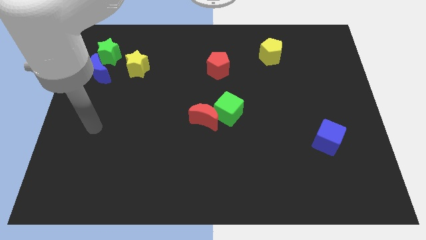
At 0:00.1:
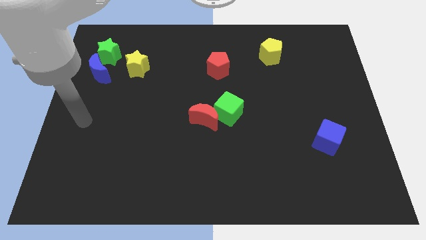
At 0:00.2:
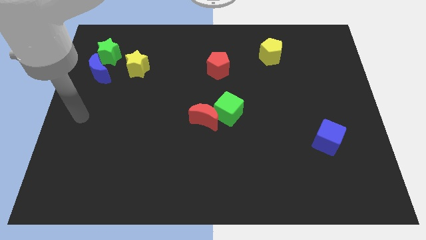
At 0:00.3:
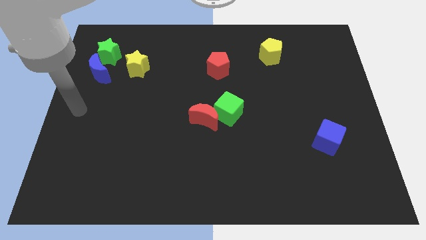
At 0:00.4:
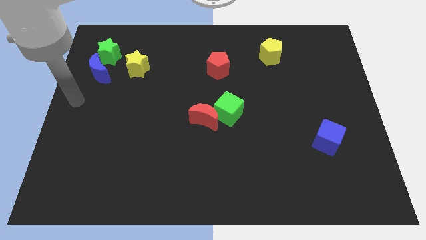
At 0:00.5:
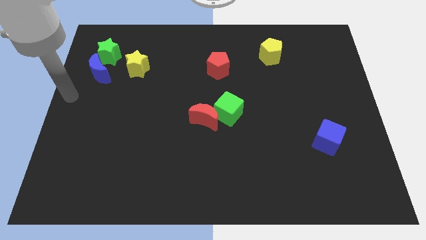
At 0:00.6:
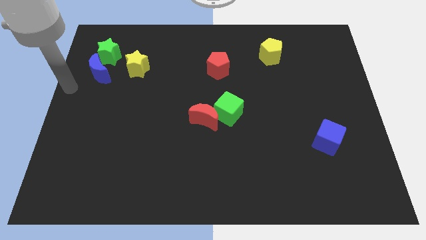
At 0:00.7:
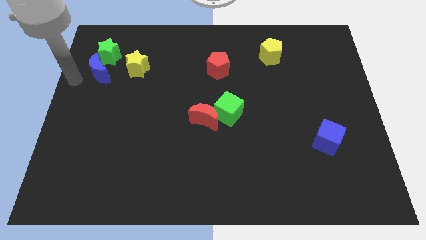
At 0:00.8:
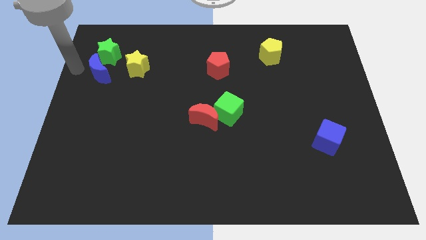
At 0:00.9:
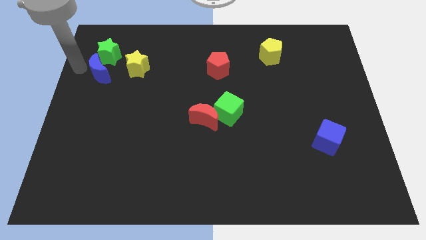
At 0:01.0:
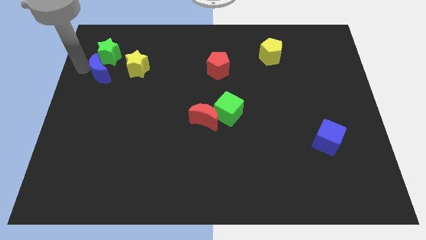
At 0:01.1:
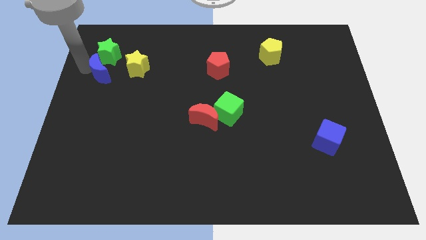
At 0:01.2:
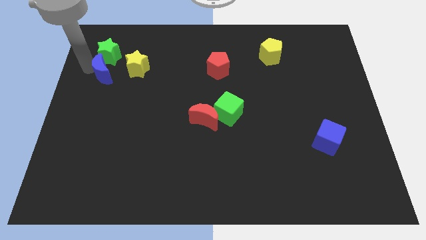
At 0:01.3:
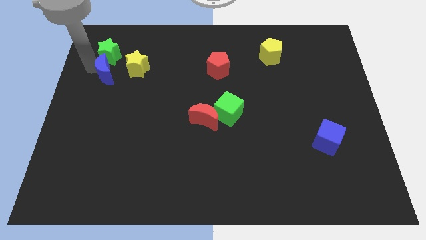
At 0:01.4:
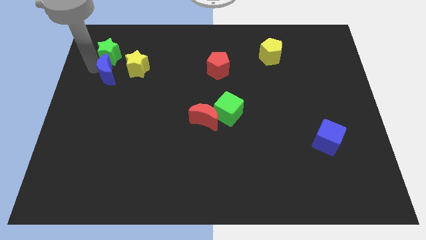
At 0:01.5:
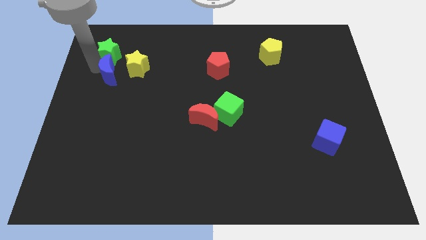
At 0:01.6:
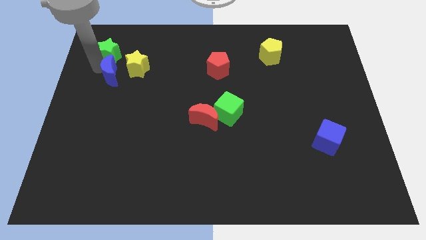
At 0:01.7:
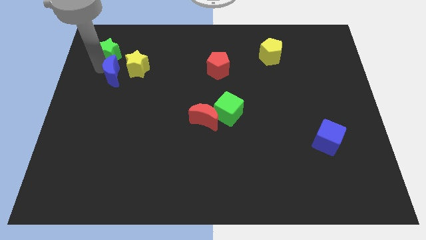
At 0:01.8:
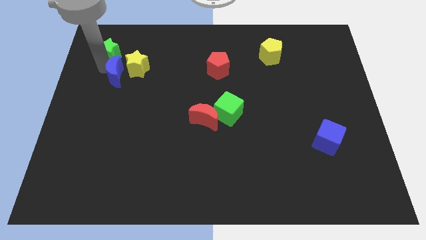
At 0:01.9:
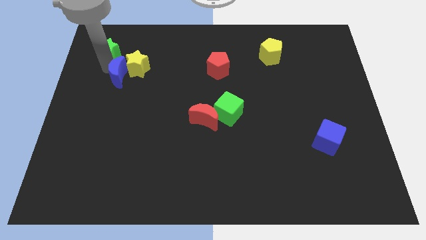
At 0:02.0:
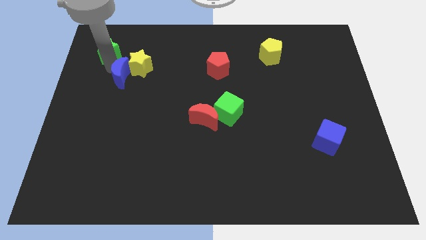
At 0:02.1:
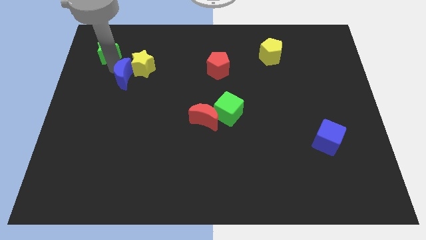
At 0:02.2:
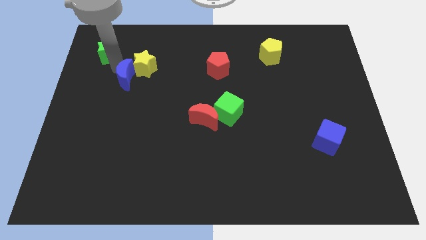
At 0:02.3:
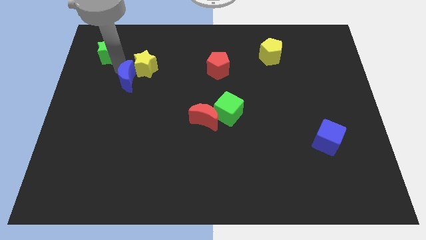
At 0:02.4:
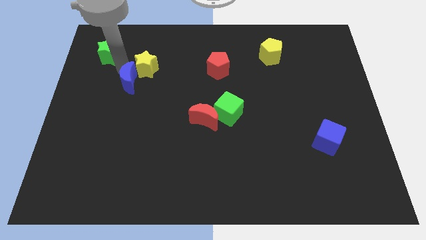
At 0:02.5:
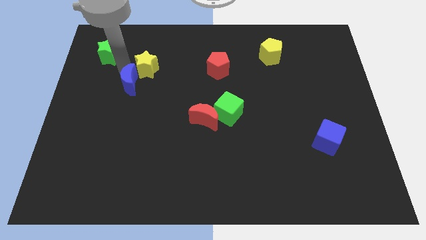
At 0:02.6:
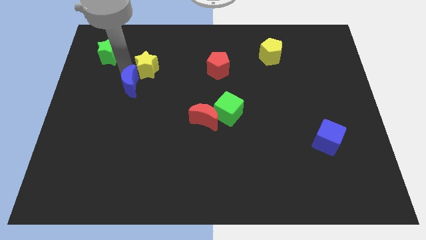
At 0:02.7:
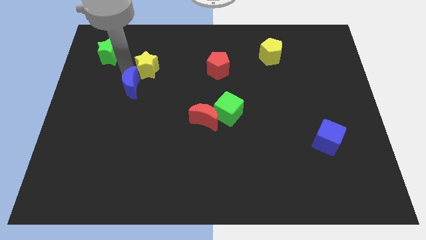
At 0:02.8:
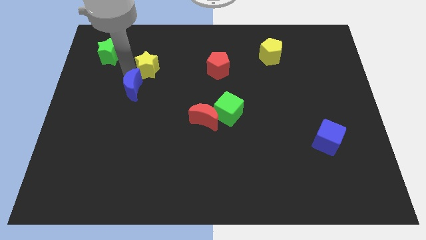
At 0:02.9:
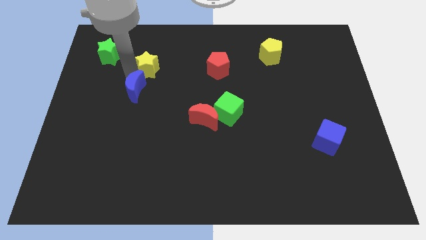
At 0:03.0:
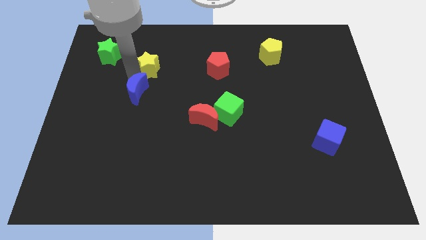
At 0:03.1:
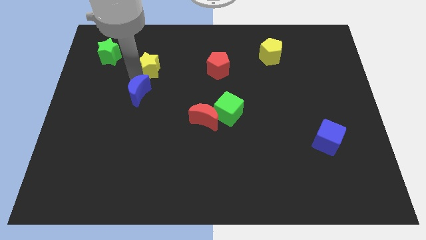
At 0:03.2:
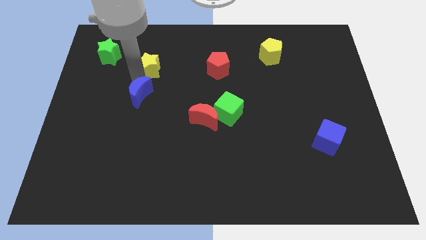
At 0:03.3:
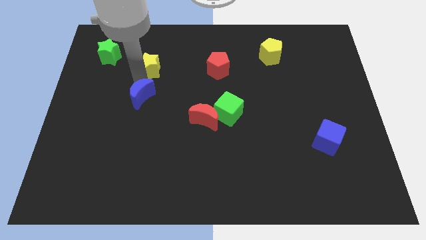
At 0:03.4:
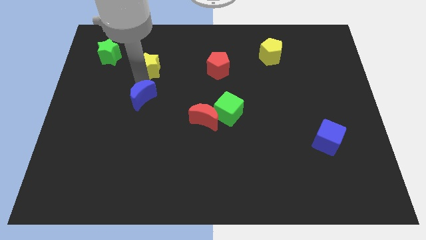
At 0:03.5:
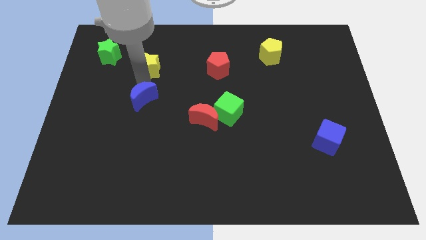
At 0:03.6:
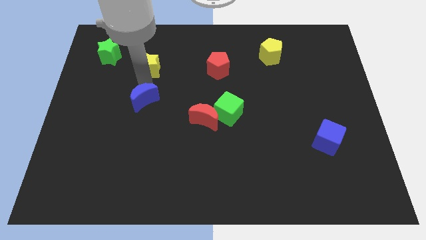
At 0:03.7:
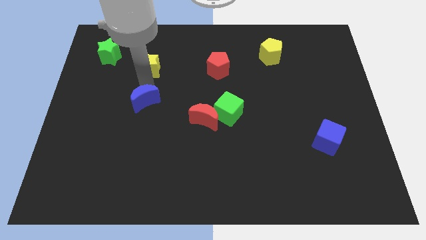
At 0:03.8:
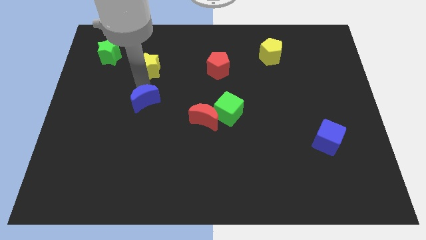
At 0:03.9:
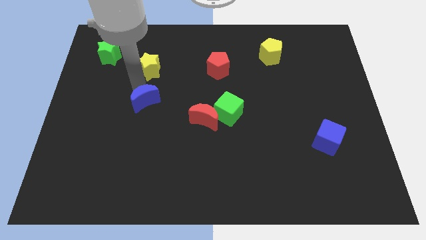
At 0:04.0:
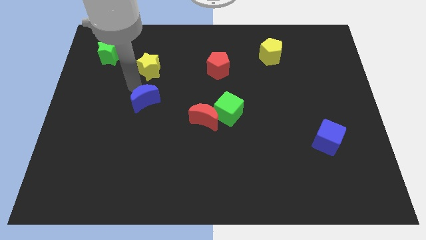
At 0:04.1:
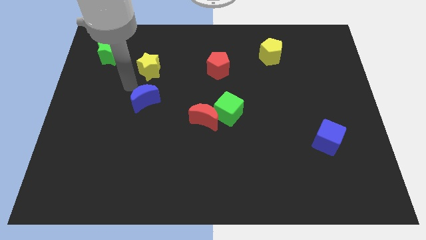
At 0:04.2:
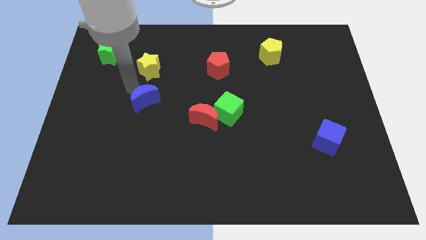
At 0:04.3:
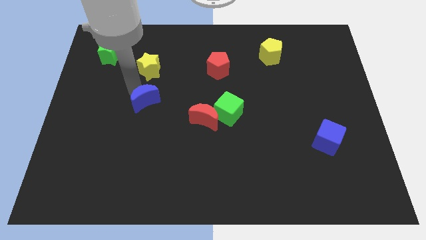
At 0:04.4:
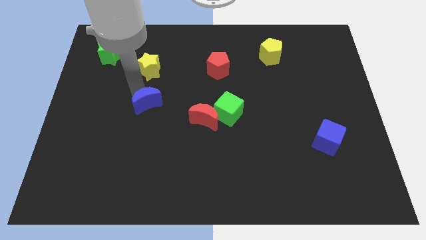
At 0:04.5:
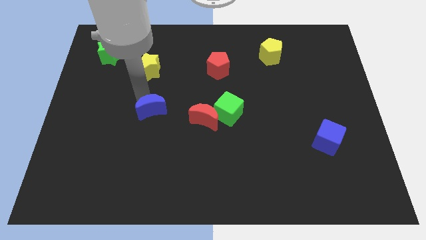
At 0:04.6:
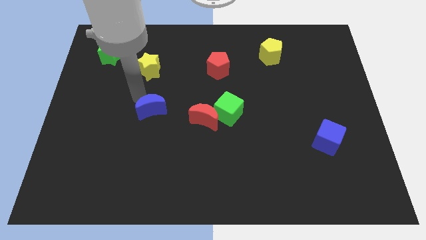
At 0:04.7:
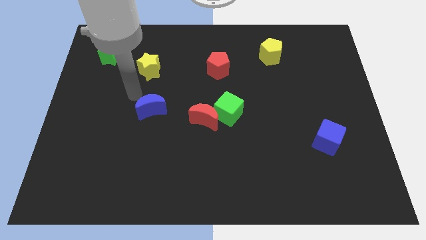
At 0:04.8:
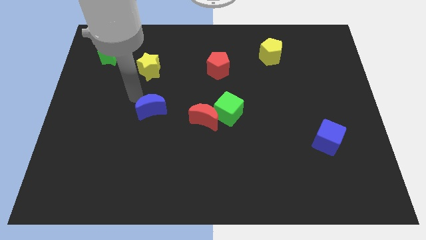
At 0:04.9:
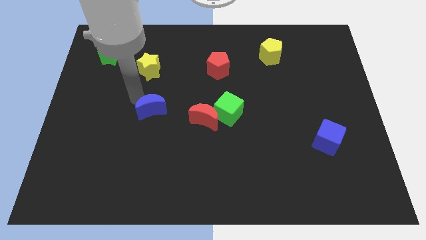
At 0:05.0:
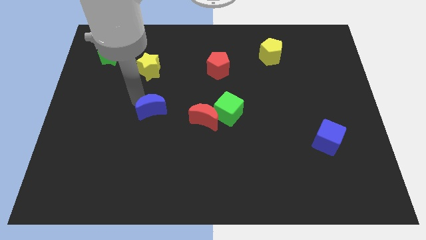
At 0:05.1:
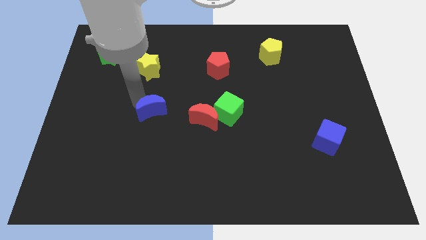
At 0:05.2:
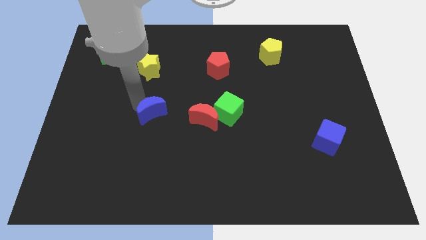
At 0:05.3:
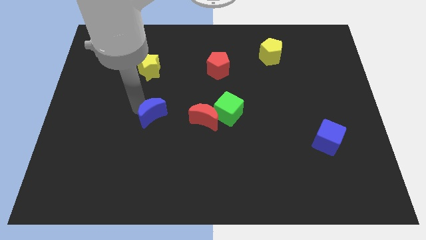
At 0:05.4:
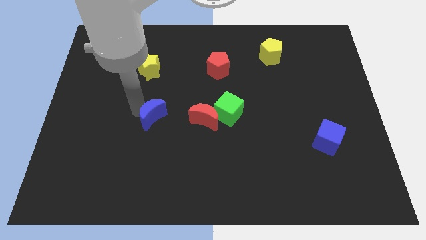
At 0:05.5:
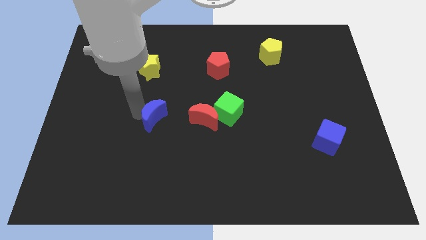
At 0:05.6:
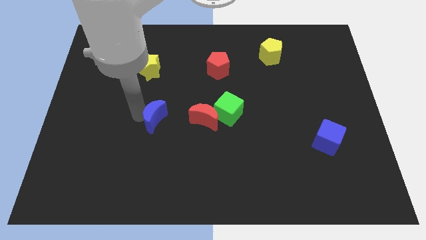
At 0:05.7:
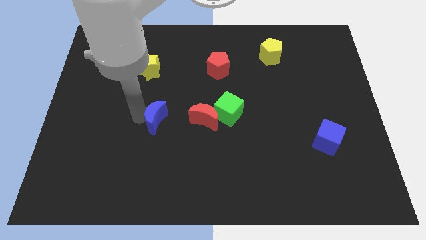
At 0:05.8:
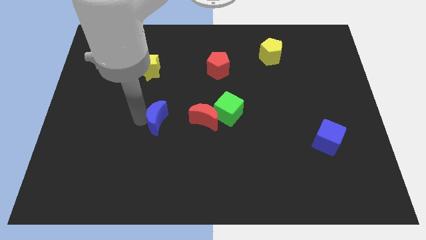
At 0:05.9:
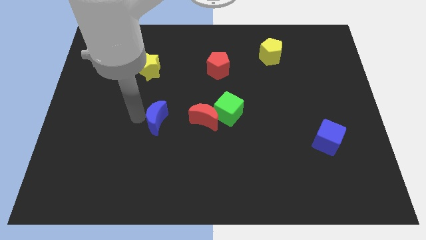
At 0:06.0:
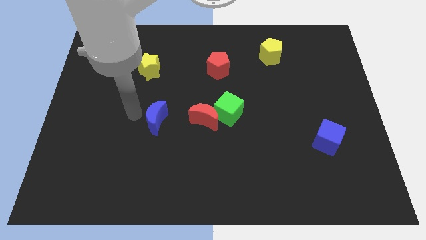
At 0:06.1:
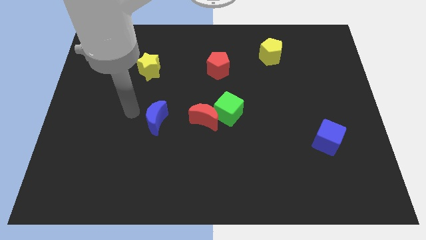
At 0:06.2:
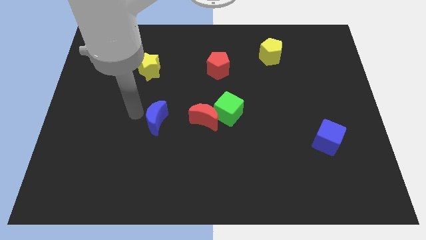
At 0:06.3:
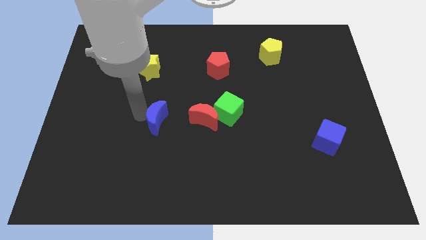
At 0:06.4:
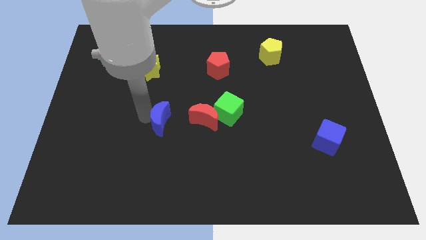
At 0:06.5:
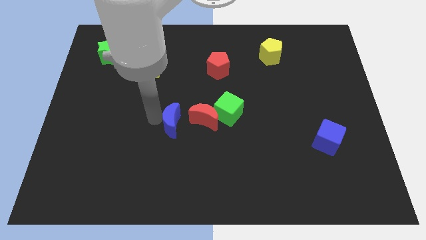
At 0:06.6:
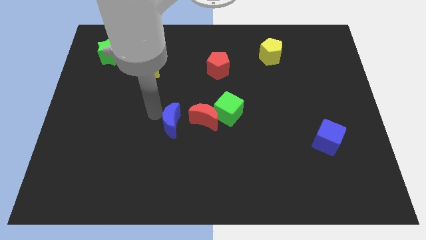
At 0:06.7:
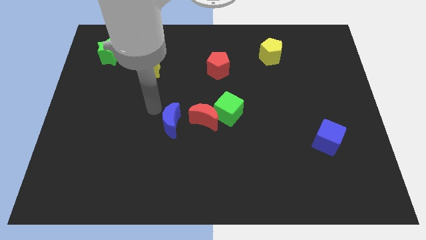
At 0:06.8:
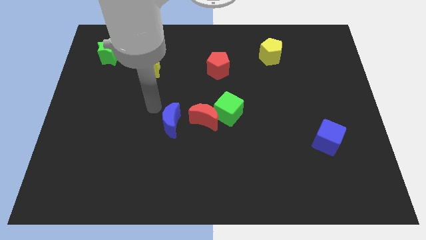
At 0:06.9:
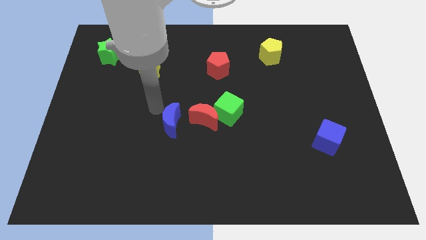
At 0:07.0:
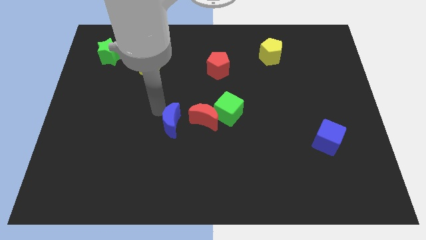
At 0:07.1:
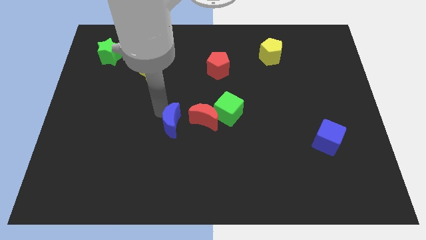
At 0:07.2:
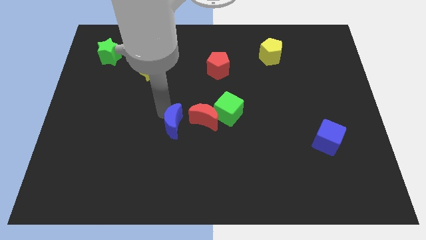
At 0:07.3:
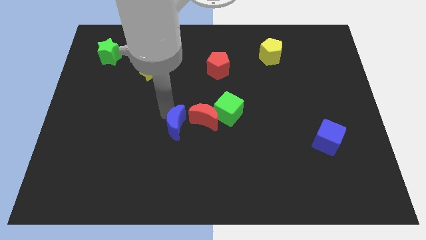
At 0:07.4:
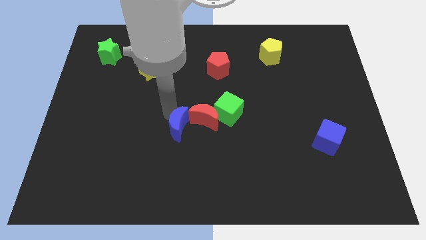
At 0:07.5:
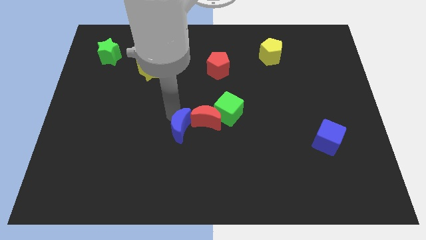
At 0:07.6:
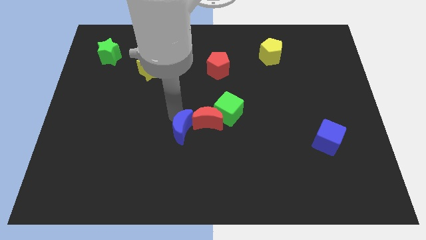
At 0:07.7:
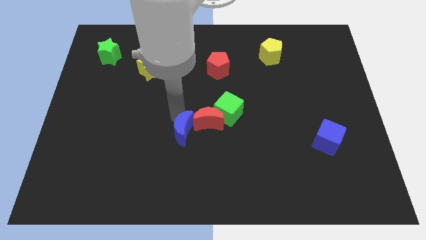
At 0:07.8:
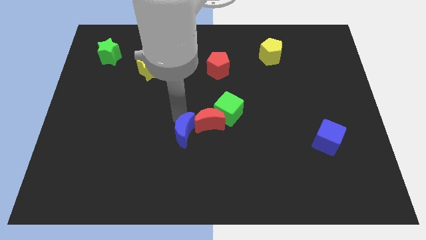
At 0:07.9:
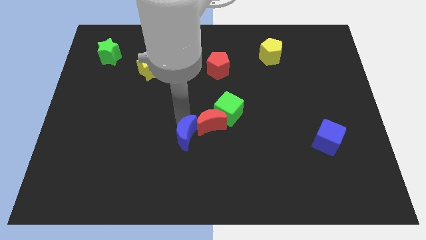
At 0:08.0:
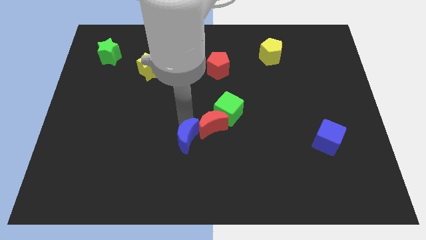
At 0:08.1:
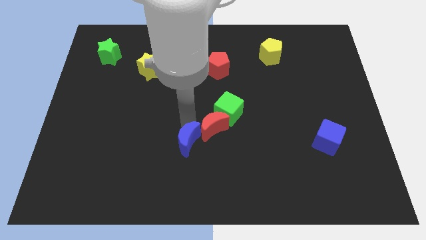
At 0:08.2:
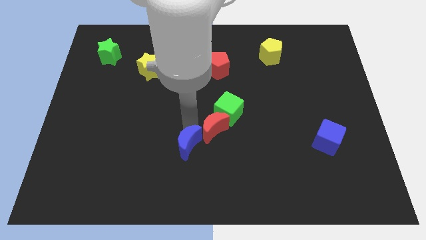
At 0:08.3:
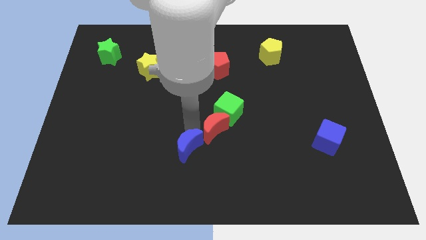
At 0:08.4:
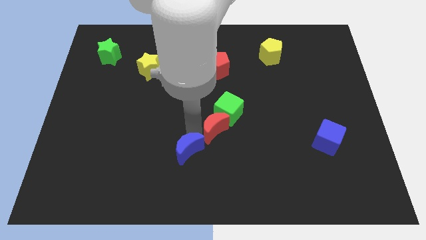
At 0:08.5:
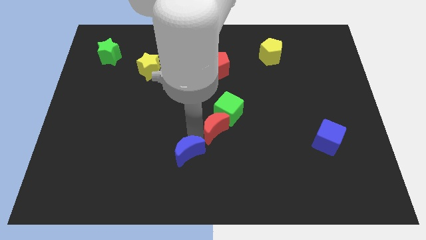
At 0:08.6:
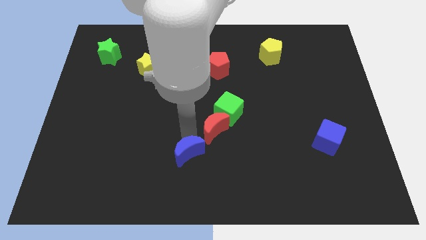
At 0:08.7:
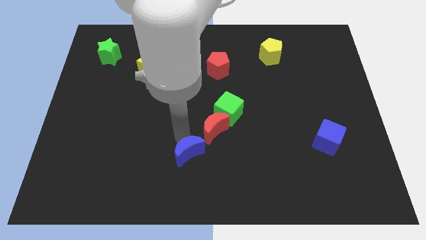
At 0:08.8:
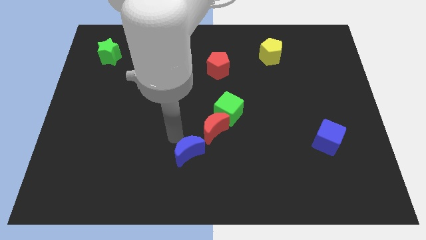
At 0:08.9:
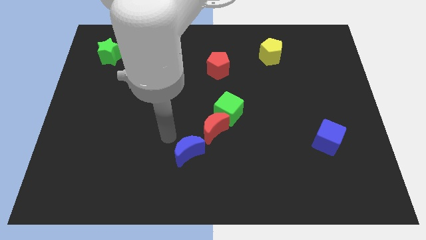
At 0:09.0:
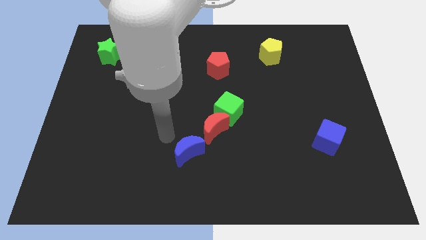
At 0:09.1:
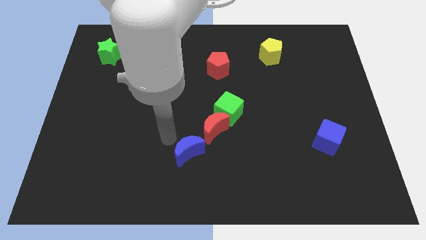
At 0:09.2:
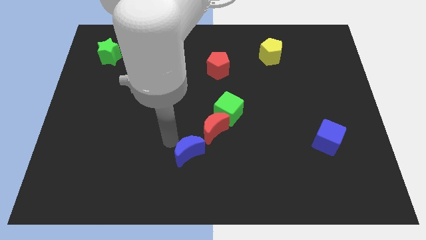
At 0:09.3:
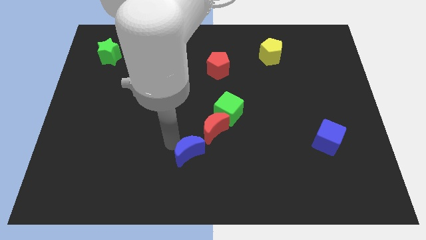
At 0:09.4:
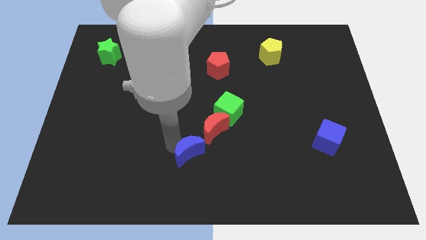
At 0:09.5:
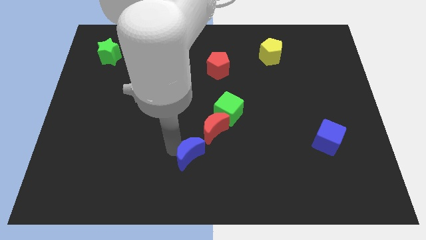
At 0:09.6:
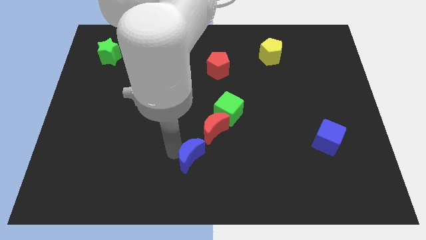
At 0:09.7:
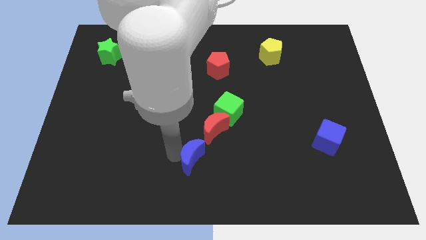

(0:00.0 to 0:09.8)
slide the blue moon to the bottom side of the red moon
